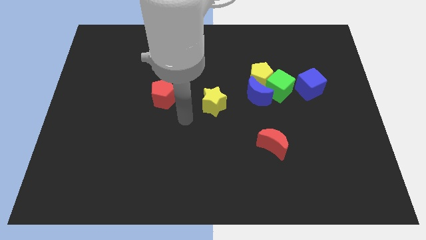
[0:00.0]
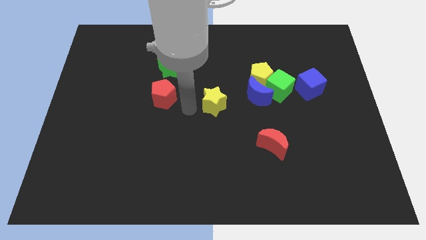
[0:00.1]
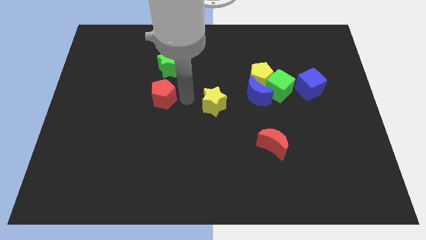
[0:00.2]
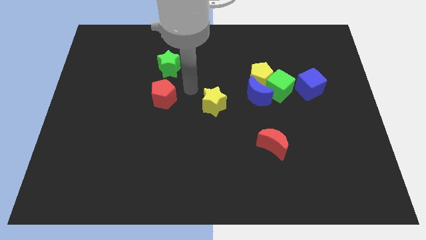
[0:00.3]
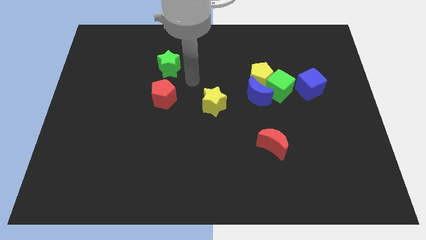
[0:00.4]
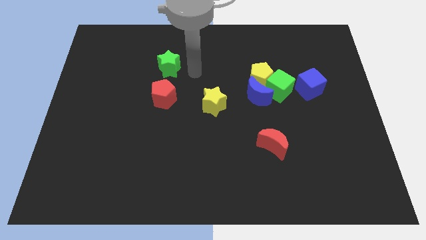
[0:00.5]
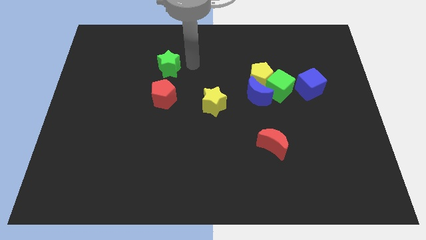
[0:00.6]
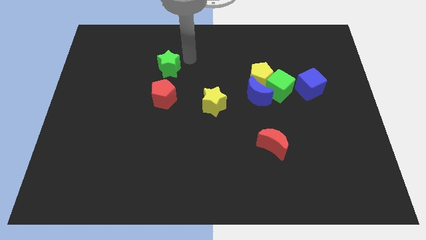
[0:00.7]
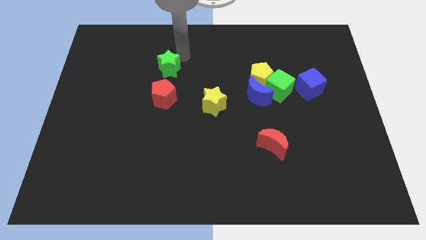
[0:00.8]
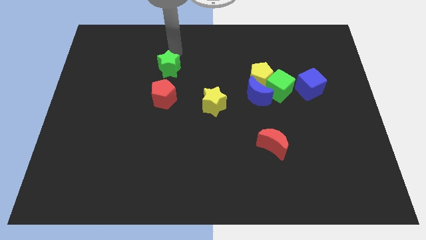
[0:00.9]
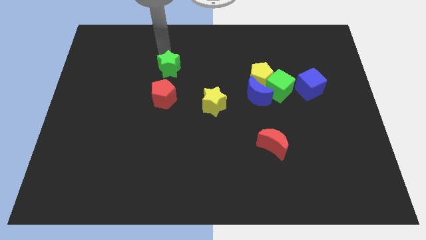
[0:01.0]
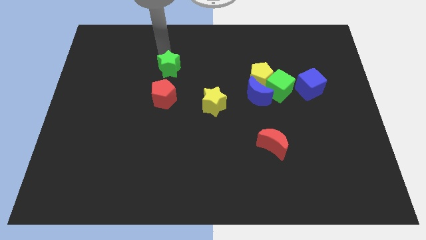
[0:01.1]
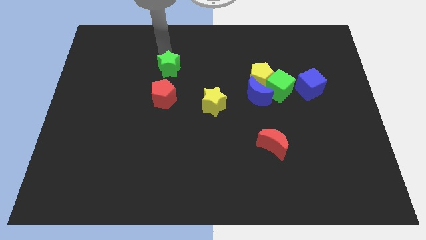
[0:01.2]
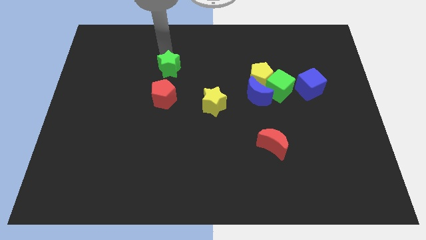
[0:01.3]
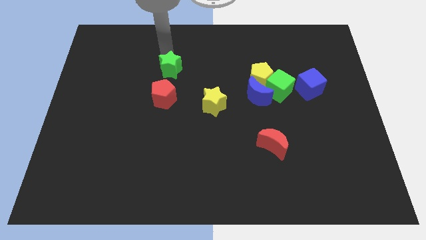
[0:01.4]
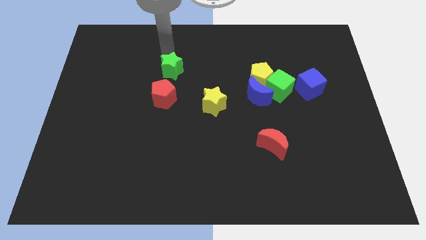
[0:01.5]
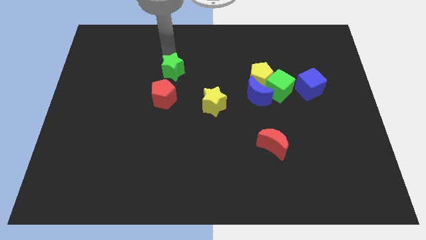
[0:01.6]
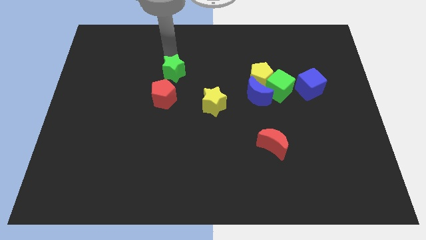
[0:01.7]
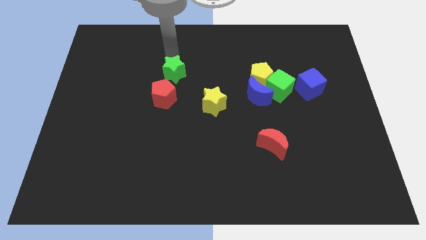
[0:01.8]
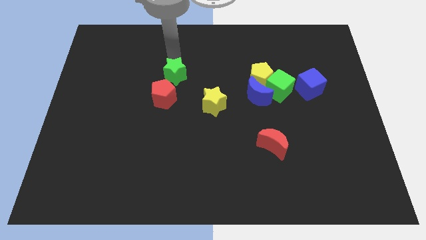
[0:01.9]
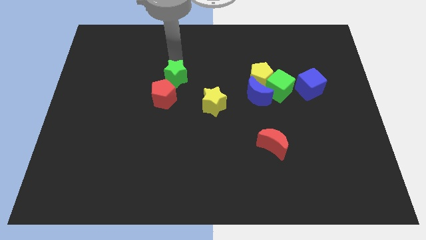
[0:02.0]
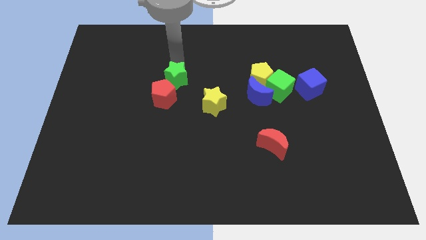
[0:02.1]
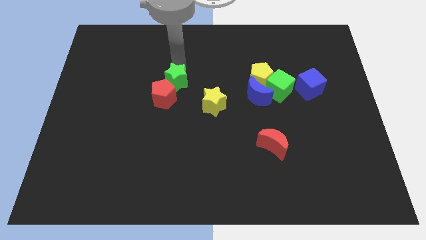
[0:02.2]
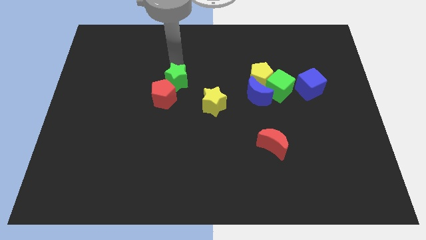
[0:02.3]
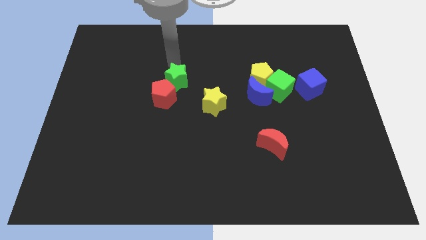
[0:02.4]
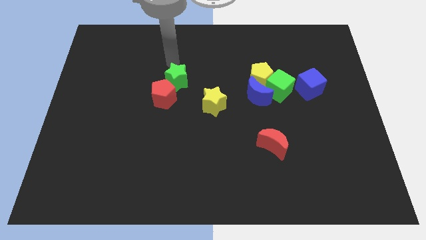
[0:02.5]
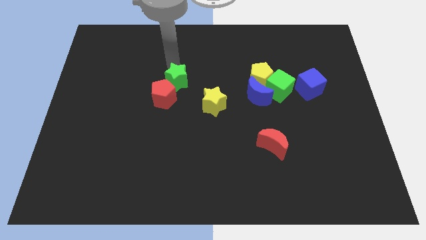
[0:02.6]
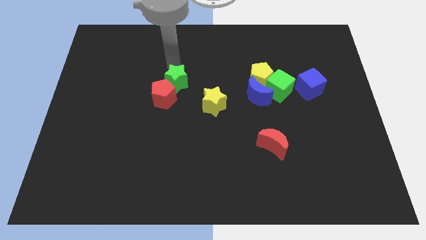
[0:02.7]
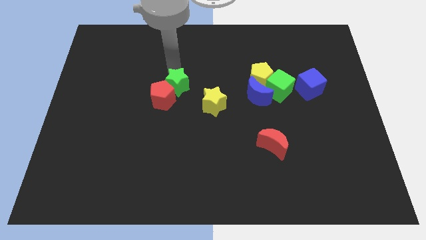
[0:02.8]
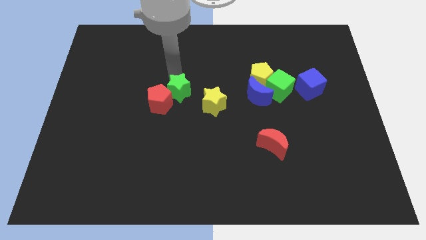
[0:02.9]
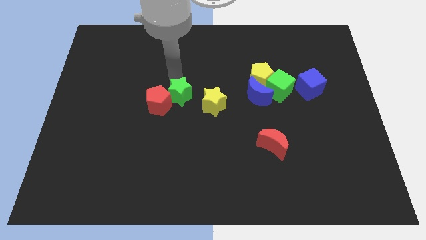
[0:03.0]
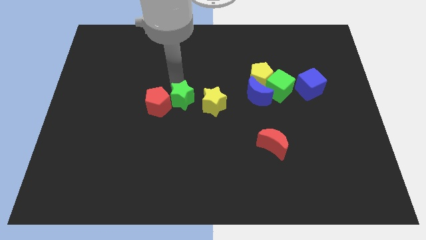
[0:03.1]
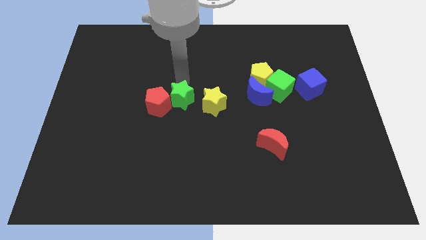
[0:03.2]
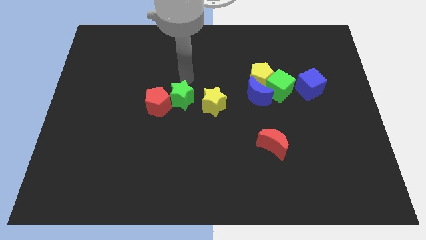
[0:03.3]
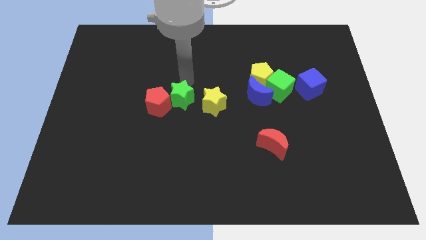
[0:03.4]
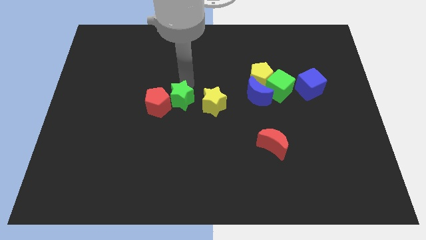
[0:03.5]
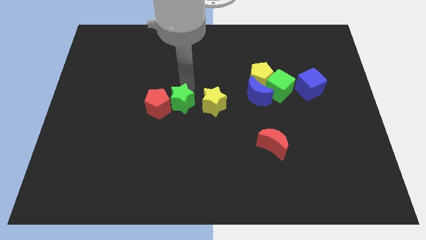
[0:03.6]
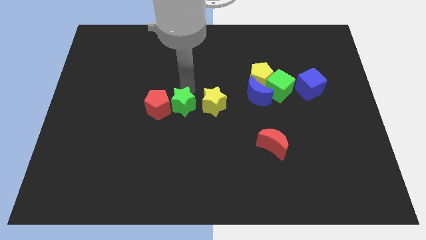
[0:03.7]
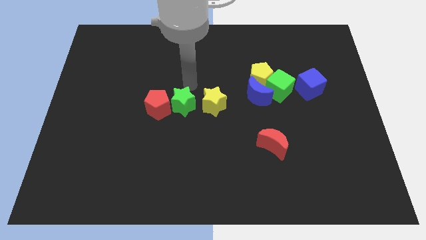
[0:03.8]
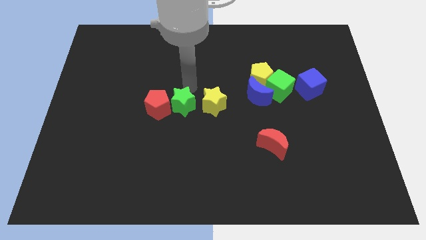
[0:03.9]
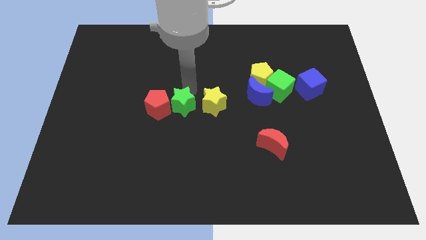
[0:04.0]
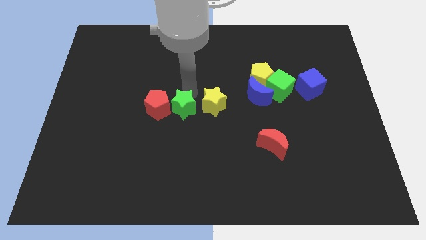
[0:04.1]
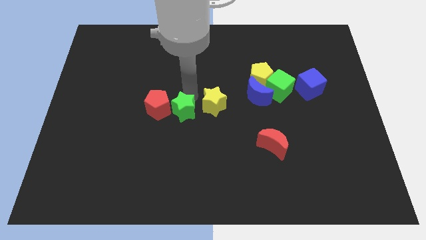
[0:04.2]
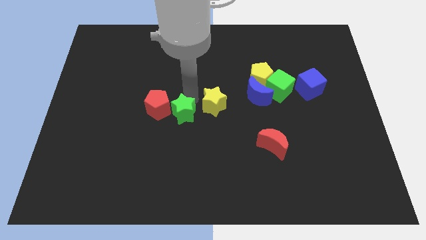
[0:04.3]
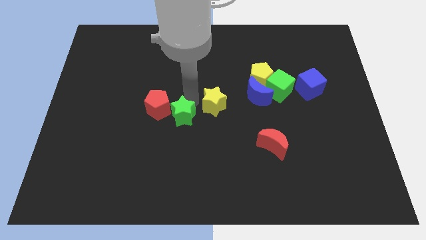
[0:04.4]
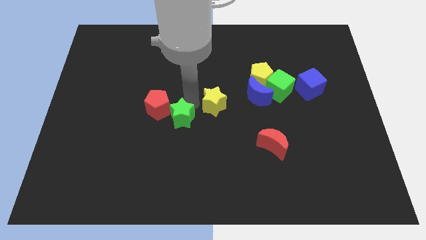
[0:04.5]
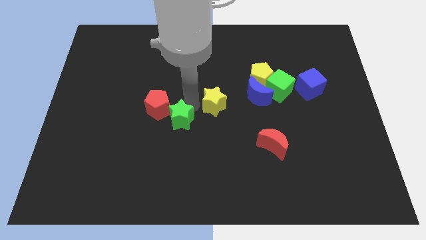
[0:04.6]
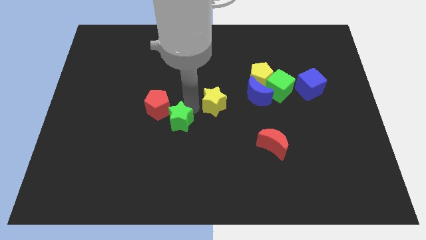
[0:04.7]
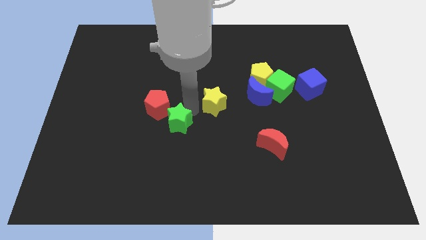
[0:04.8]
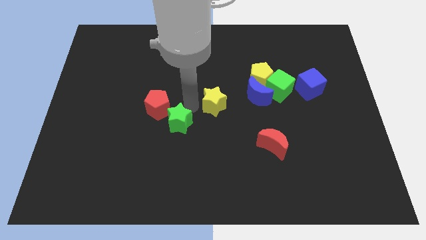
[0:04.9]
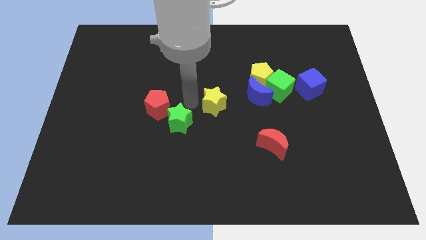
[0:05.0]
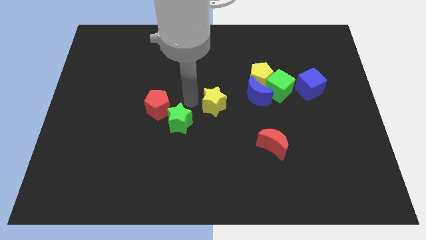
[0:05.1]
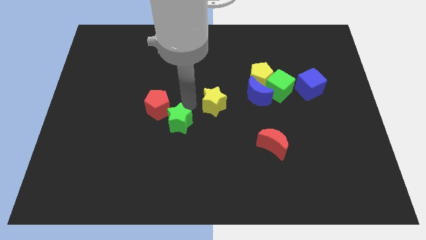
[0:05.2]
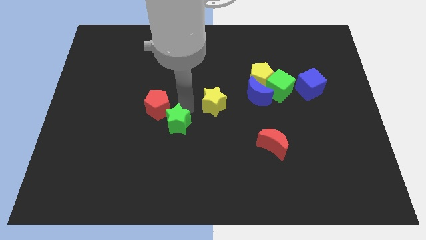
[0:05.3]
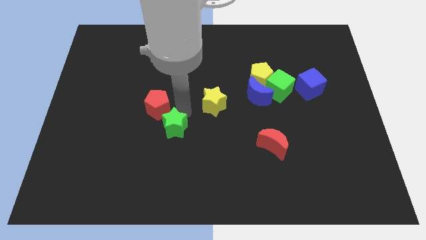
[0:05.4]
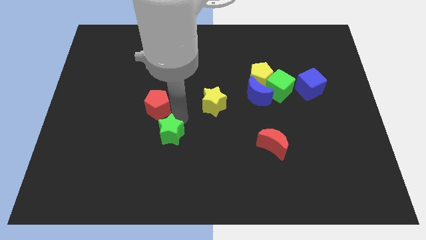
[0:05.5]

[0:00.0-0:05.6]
push the green star downwards

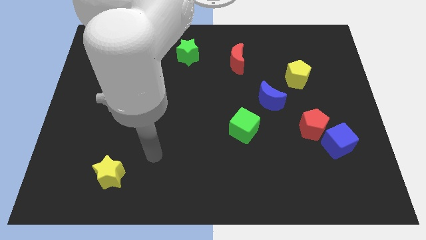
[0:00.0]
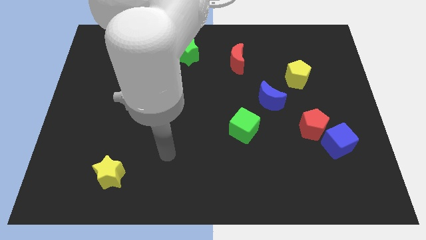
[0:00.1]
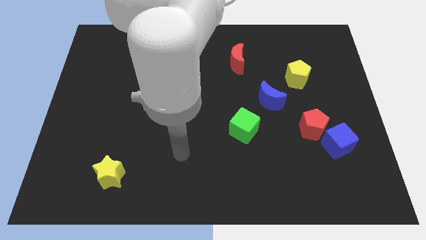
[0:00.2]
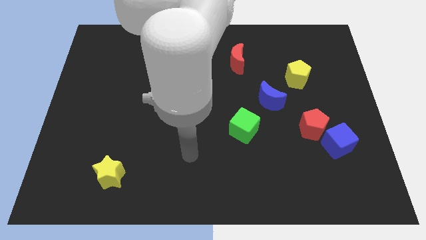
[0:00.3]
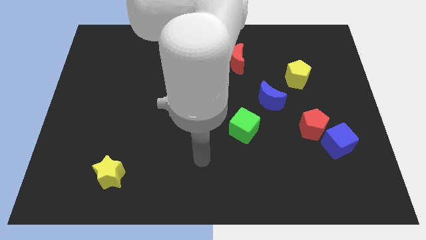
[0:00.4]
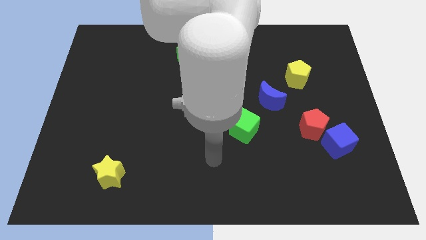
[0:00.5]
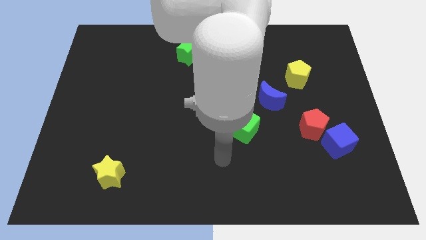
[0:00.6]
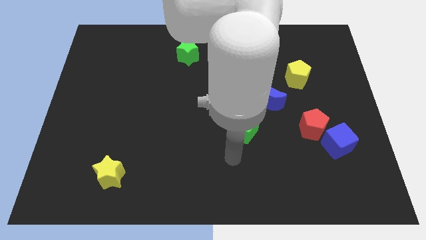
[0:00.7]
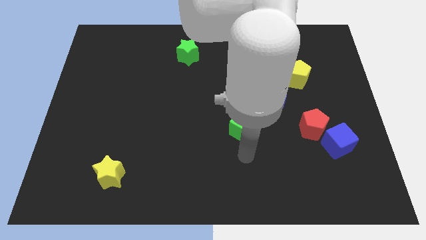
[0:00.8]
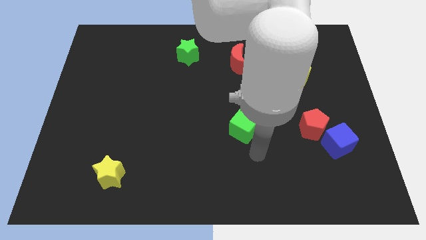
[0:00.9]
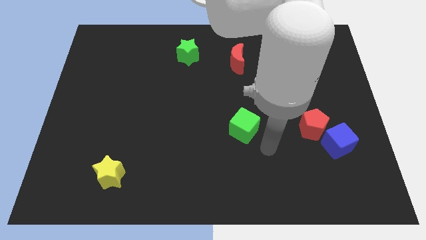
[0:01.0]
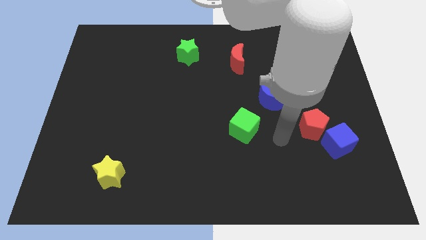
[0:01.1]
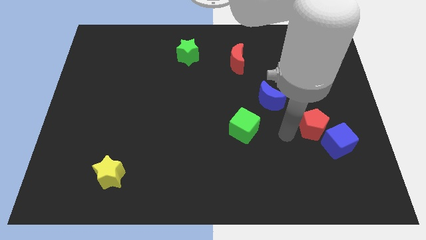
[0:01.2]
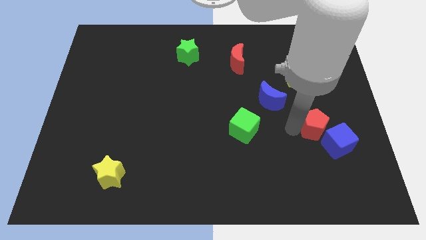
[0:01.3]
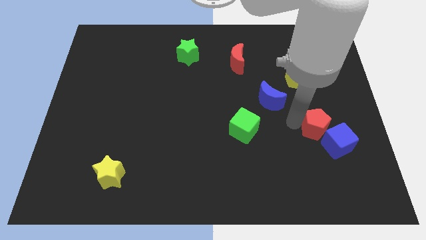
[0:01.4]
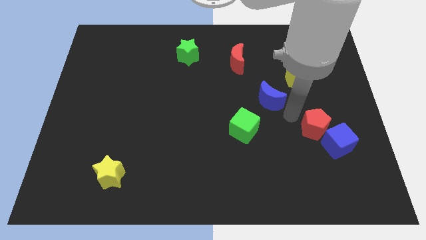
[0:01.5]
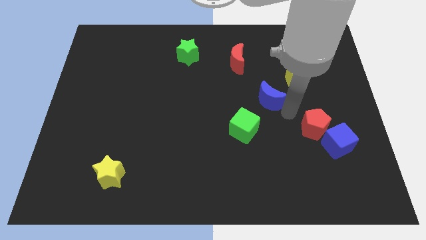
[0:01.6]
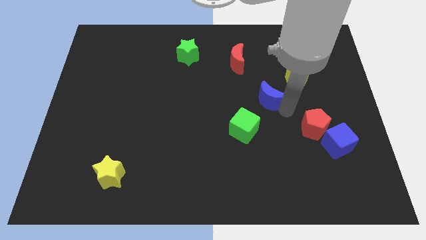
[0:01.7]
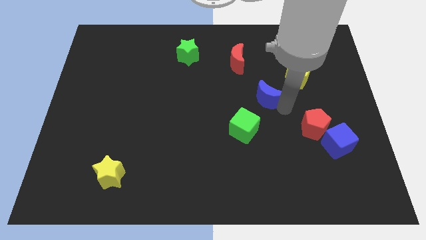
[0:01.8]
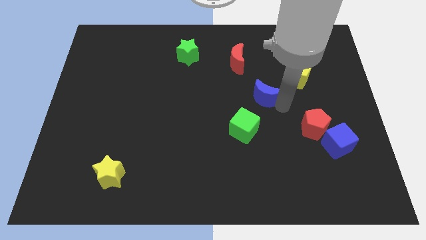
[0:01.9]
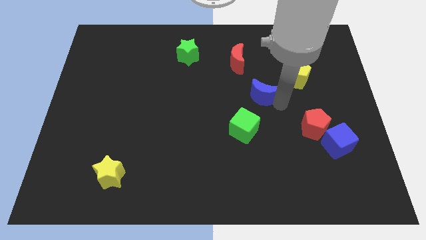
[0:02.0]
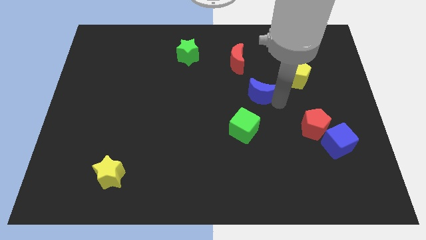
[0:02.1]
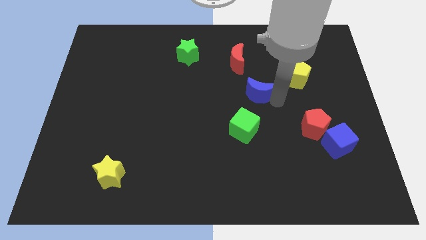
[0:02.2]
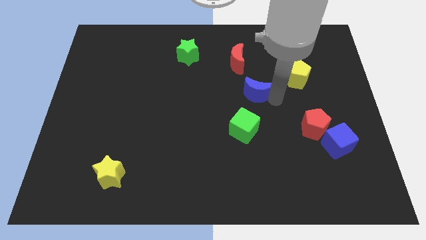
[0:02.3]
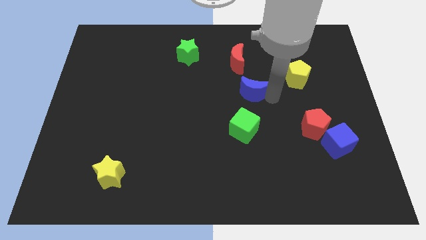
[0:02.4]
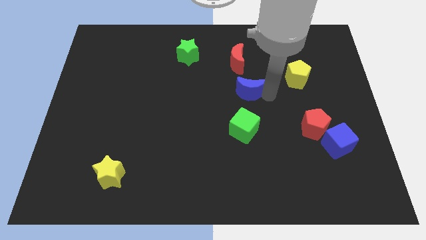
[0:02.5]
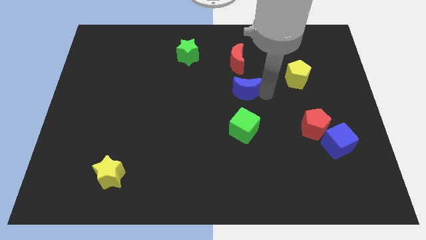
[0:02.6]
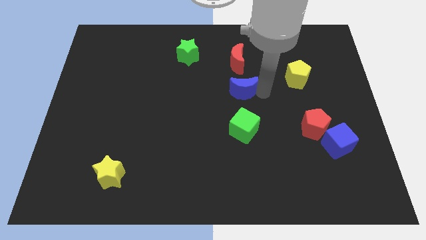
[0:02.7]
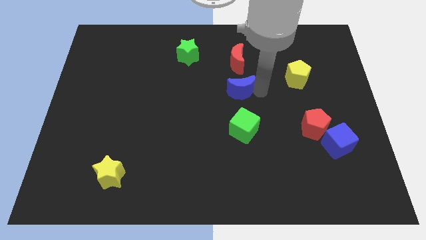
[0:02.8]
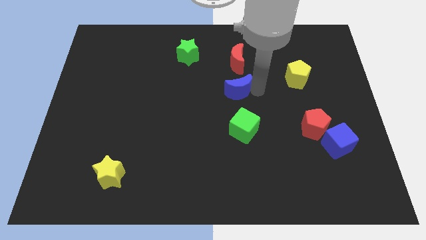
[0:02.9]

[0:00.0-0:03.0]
slide the blue moon a little bit upwards and to the left diagonally
